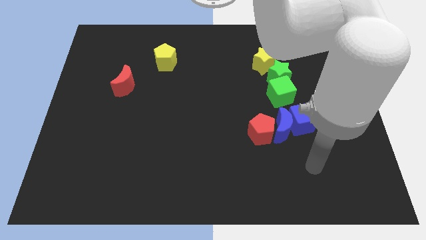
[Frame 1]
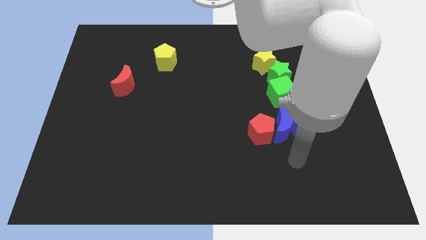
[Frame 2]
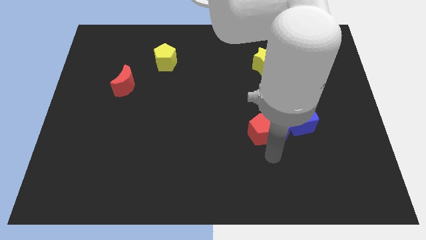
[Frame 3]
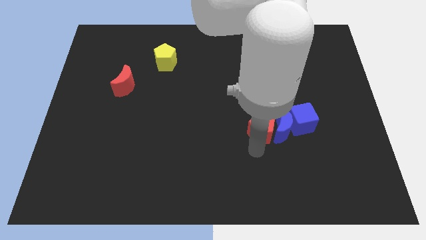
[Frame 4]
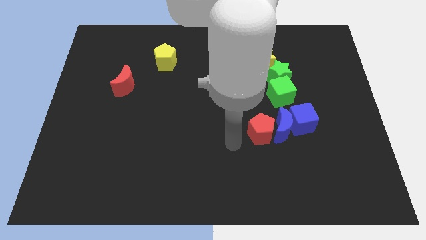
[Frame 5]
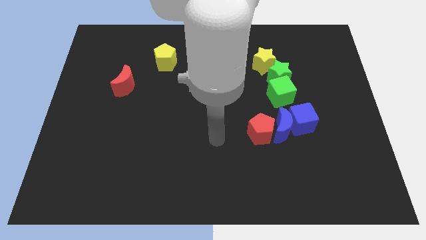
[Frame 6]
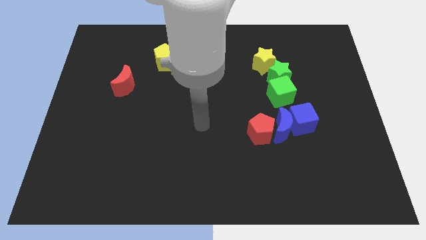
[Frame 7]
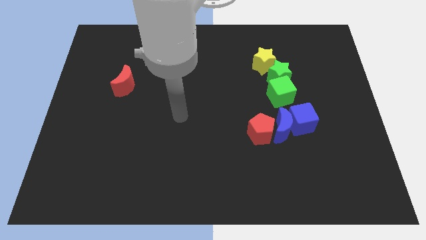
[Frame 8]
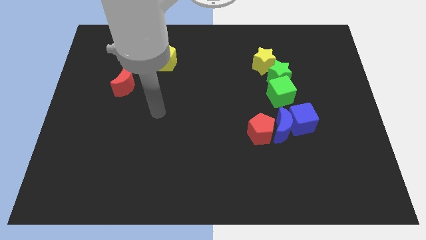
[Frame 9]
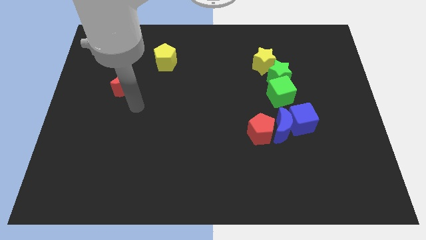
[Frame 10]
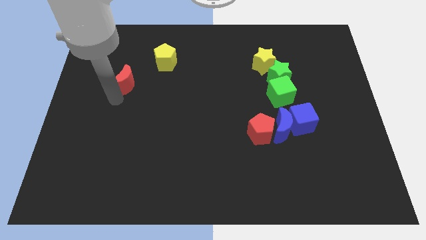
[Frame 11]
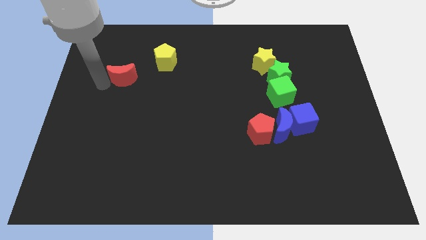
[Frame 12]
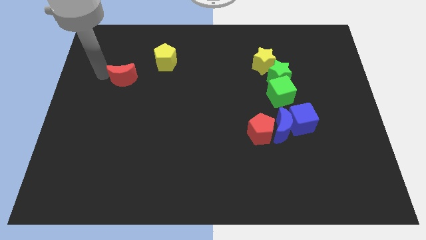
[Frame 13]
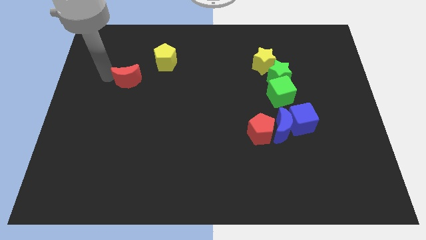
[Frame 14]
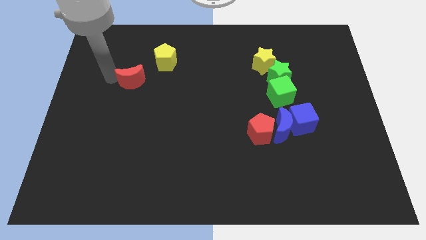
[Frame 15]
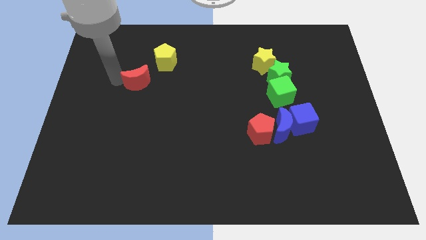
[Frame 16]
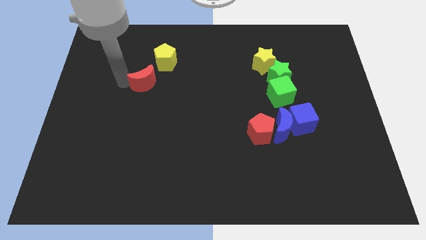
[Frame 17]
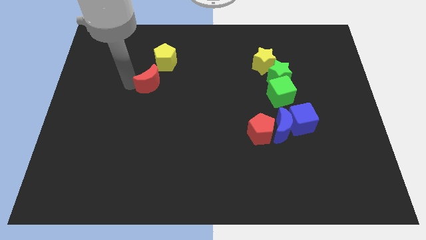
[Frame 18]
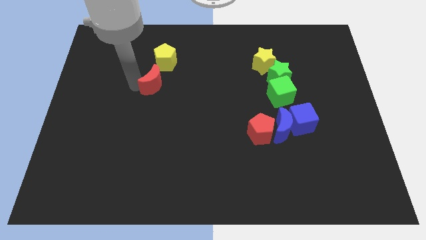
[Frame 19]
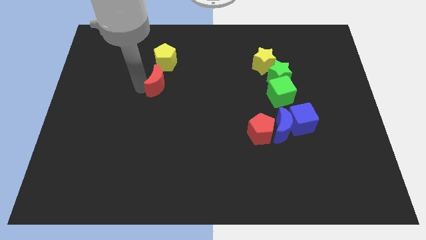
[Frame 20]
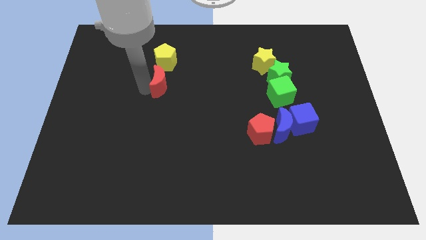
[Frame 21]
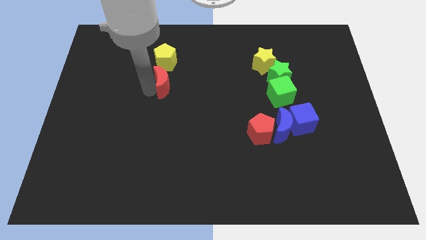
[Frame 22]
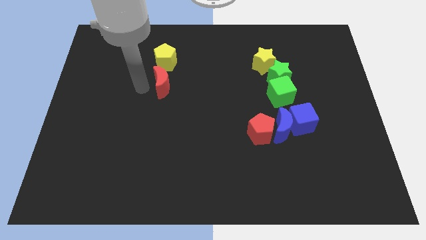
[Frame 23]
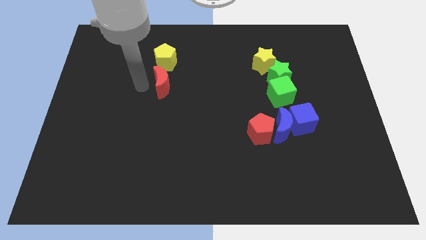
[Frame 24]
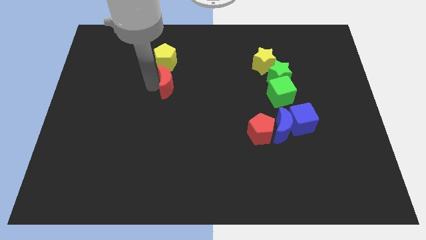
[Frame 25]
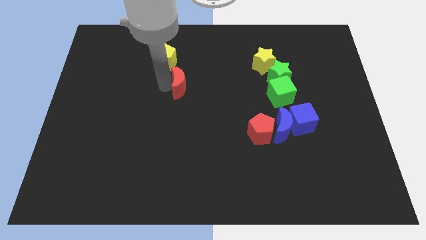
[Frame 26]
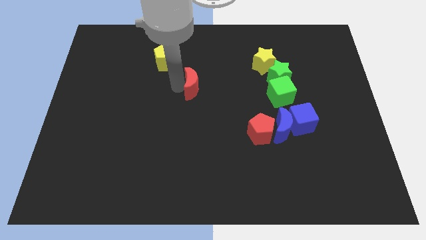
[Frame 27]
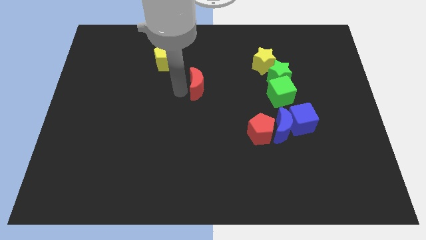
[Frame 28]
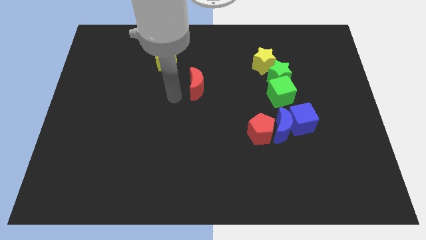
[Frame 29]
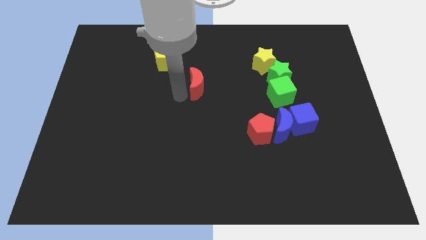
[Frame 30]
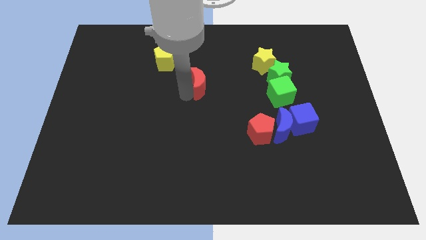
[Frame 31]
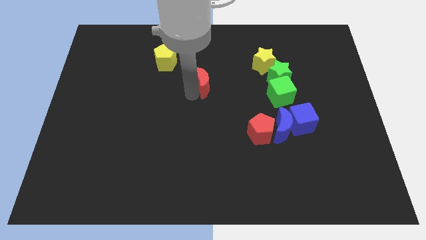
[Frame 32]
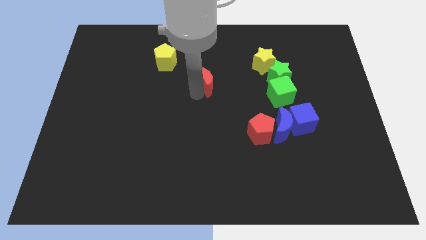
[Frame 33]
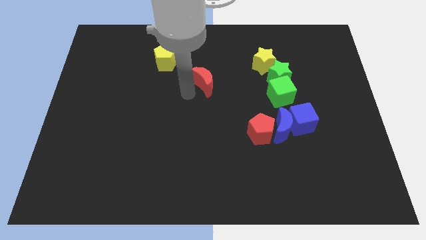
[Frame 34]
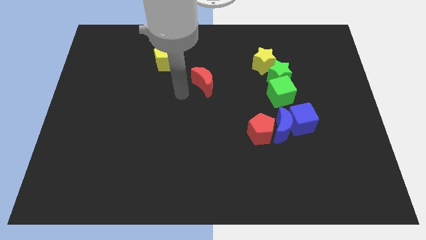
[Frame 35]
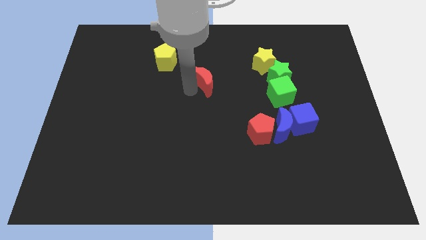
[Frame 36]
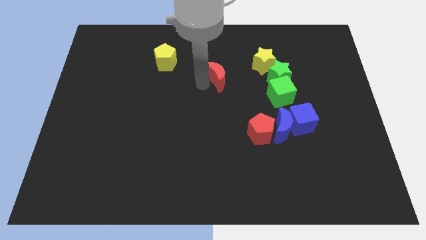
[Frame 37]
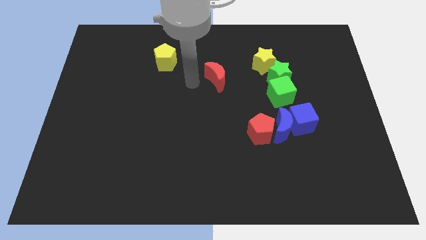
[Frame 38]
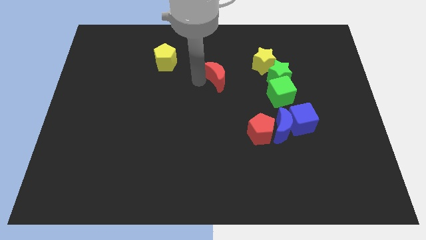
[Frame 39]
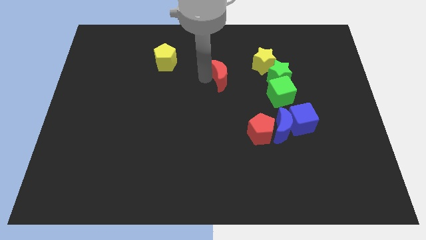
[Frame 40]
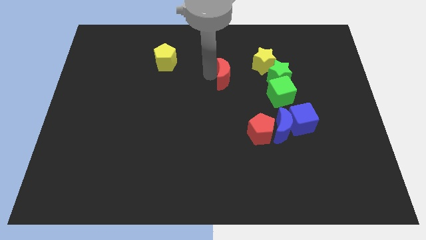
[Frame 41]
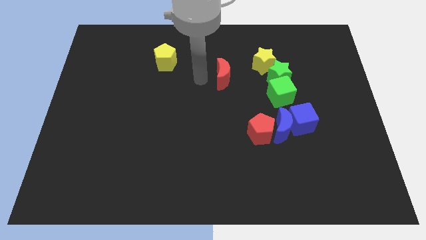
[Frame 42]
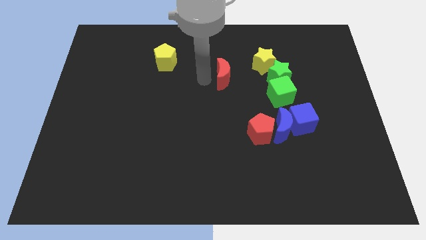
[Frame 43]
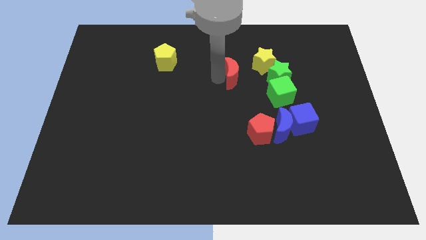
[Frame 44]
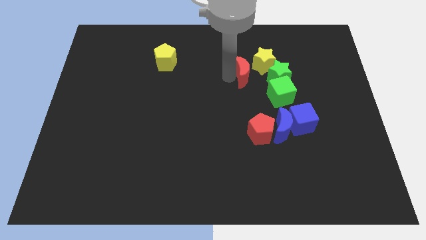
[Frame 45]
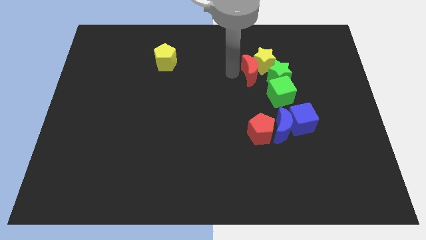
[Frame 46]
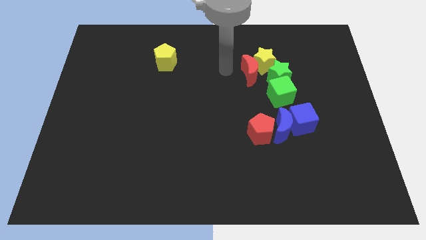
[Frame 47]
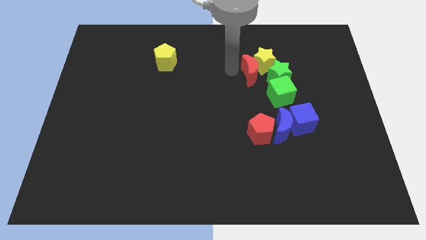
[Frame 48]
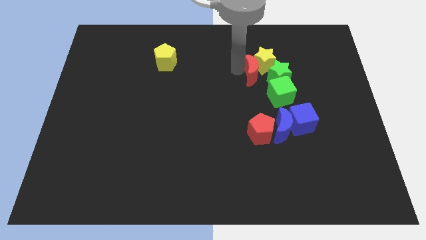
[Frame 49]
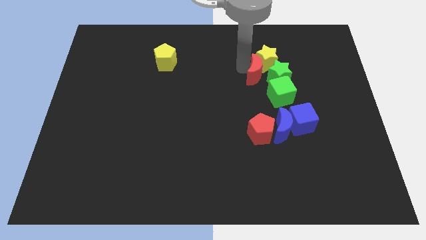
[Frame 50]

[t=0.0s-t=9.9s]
put the red moon towards the green star

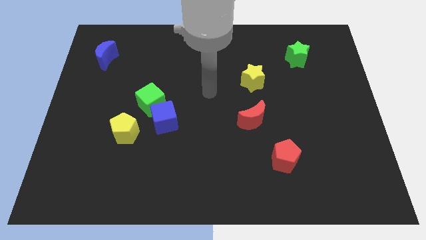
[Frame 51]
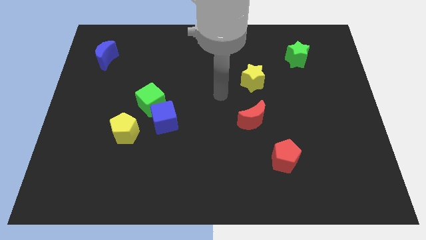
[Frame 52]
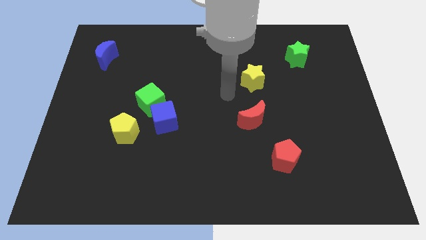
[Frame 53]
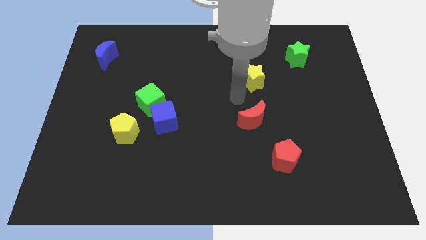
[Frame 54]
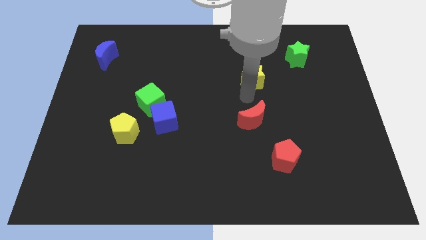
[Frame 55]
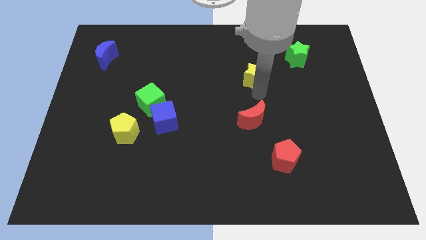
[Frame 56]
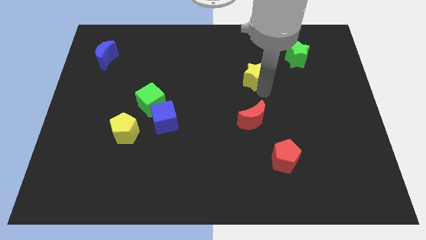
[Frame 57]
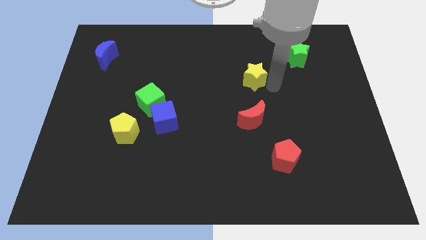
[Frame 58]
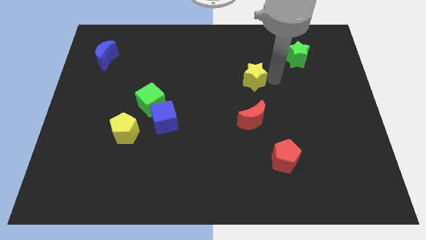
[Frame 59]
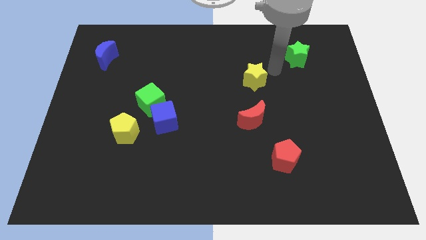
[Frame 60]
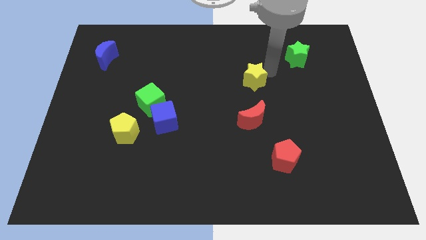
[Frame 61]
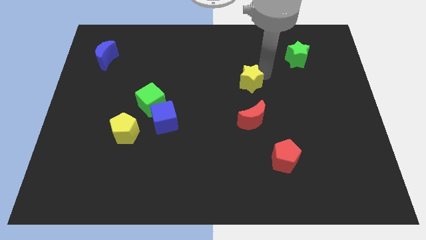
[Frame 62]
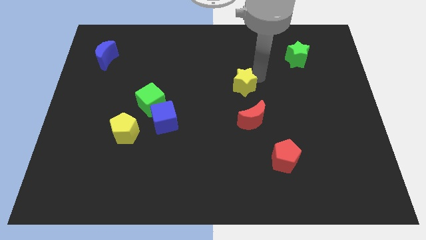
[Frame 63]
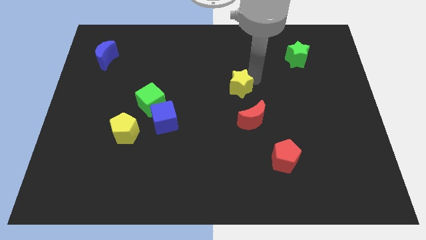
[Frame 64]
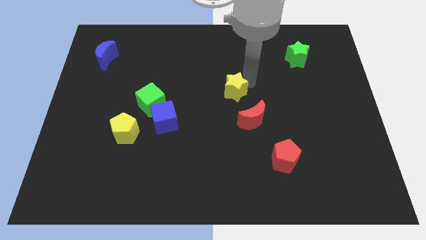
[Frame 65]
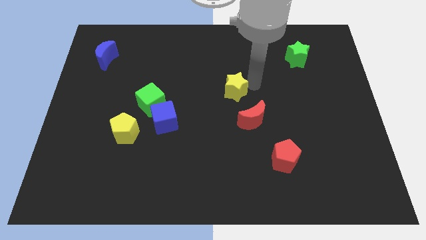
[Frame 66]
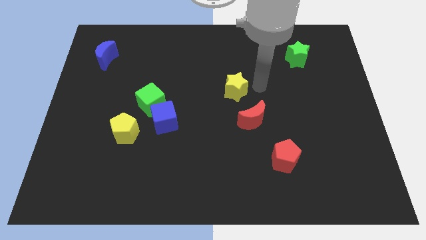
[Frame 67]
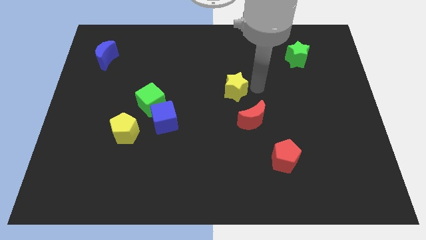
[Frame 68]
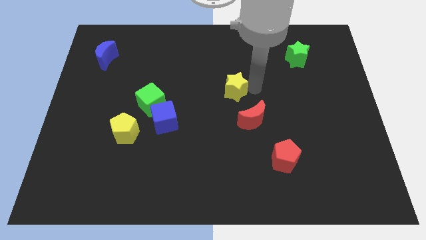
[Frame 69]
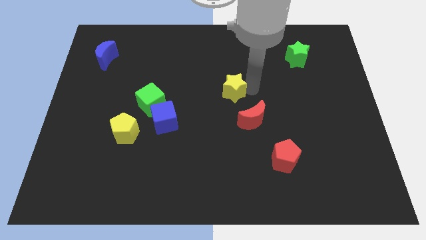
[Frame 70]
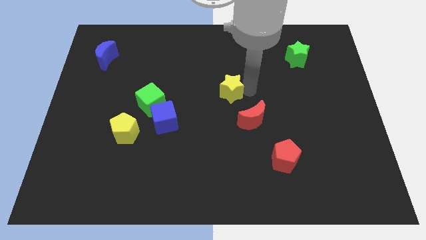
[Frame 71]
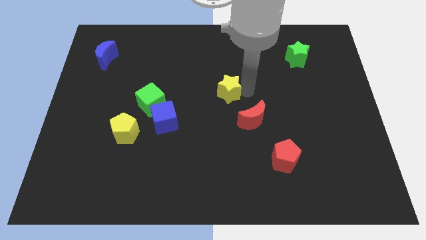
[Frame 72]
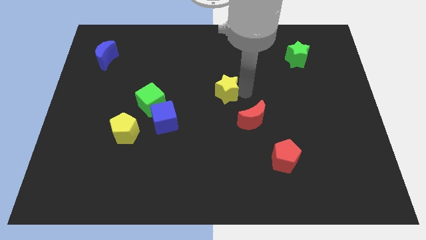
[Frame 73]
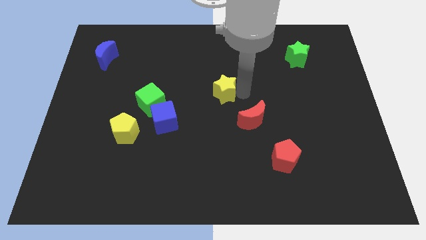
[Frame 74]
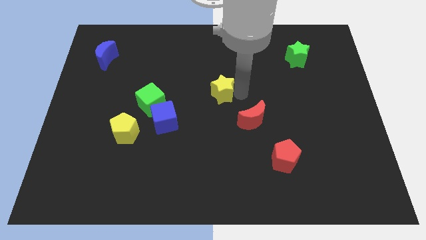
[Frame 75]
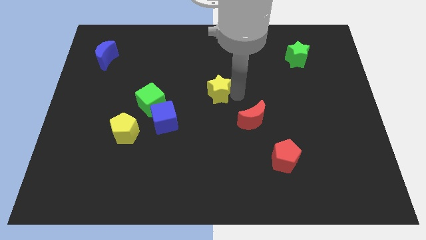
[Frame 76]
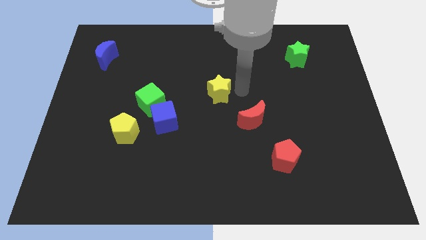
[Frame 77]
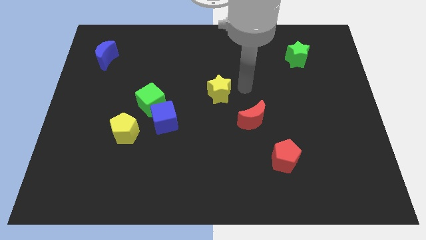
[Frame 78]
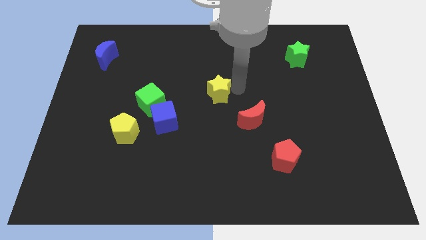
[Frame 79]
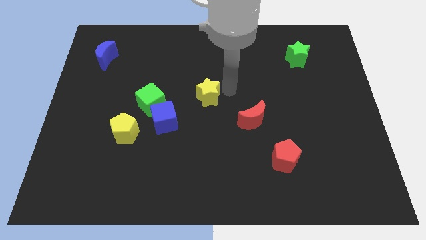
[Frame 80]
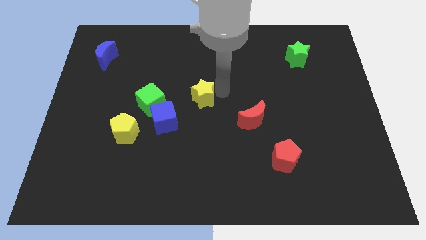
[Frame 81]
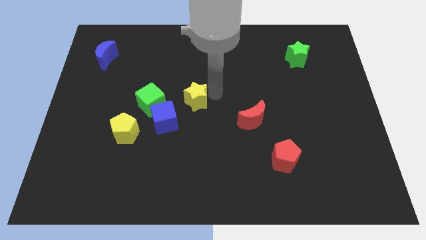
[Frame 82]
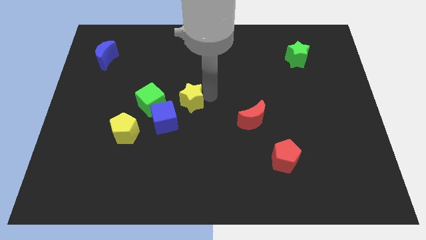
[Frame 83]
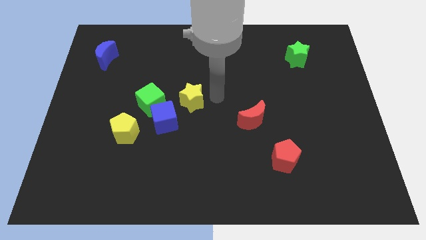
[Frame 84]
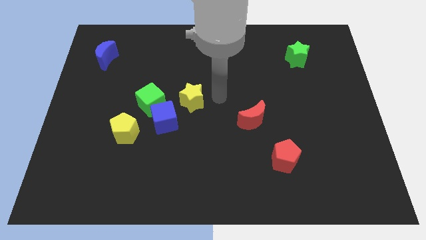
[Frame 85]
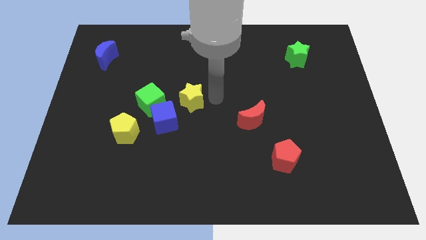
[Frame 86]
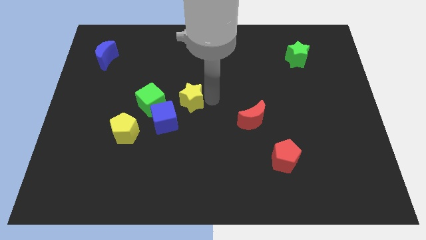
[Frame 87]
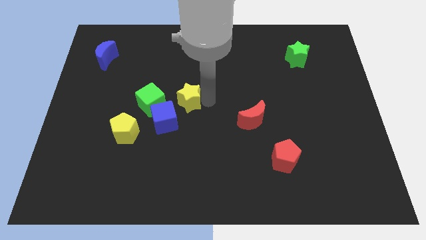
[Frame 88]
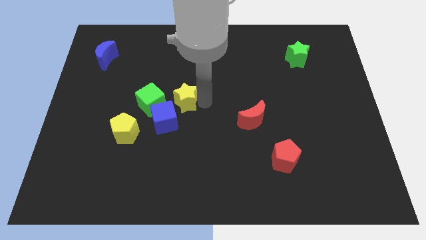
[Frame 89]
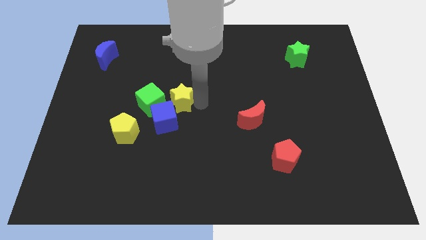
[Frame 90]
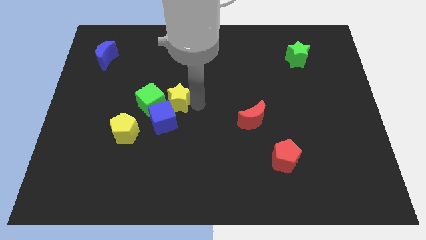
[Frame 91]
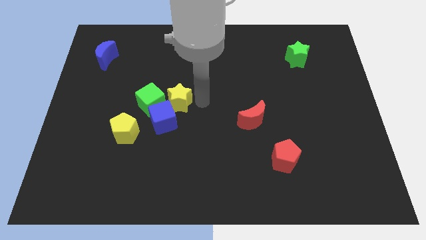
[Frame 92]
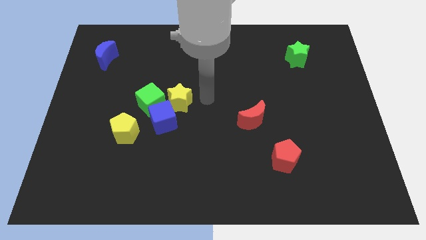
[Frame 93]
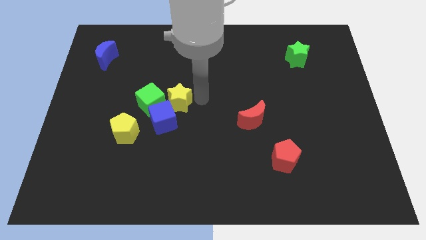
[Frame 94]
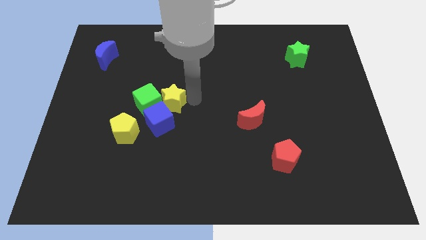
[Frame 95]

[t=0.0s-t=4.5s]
push the yellow star close to the green cube
